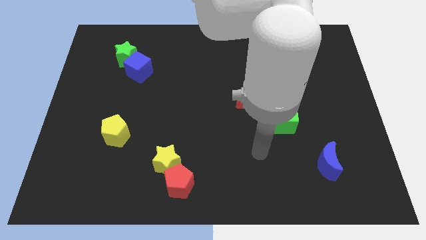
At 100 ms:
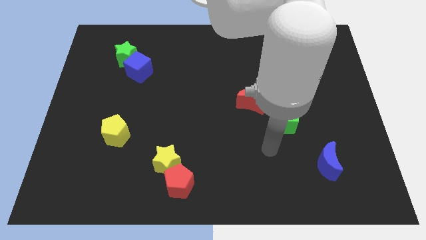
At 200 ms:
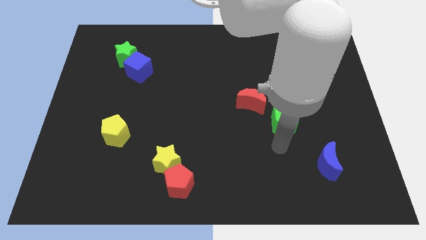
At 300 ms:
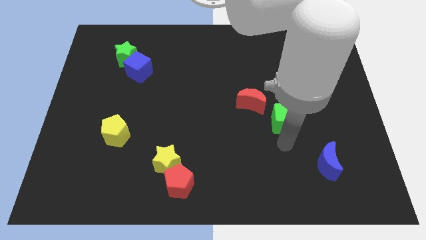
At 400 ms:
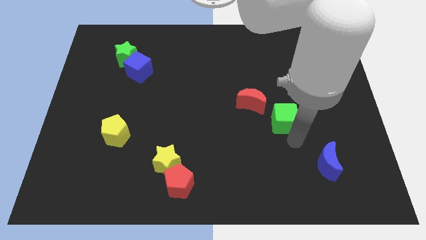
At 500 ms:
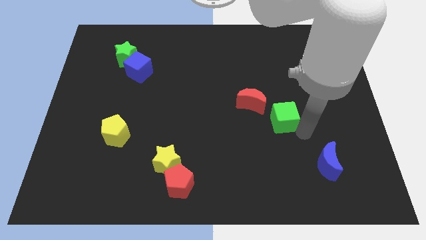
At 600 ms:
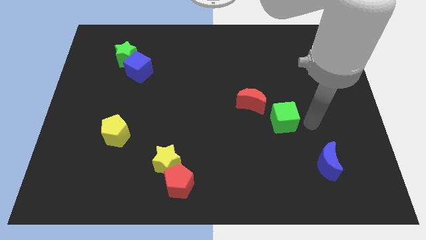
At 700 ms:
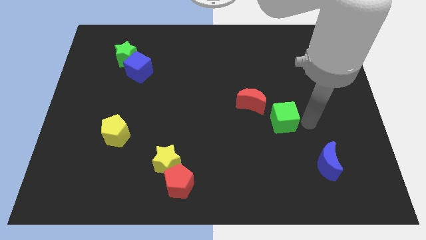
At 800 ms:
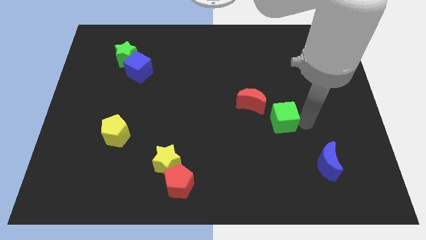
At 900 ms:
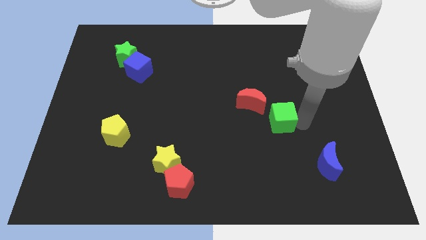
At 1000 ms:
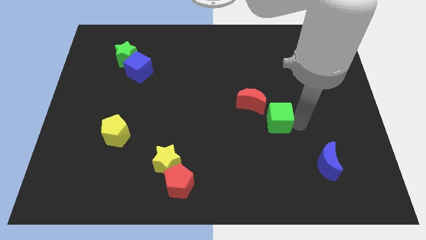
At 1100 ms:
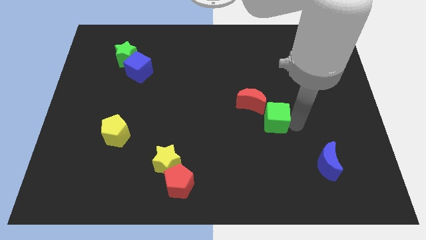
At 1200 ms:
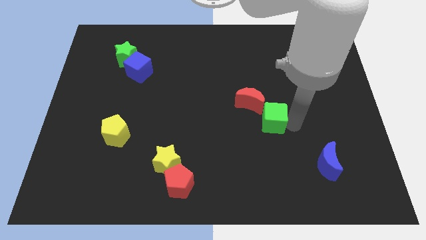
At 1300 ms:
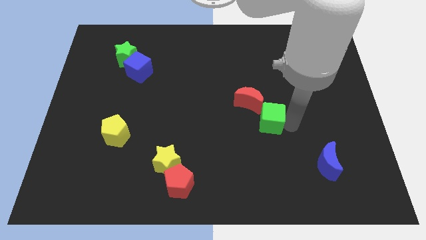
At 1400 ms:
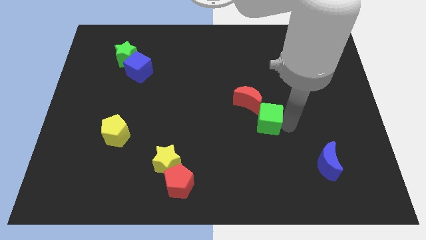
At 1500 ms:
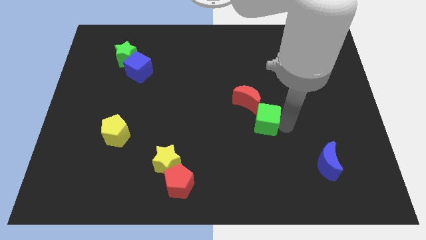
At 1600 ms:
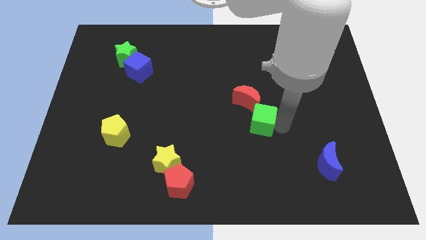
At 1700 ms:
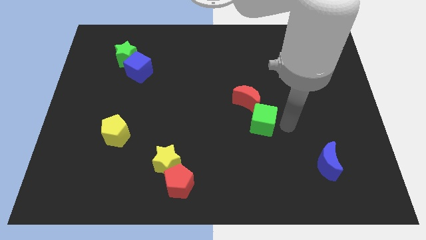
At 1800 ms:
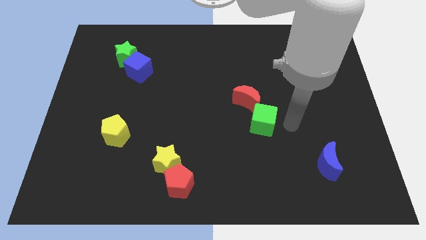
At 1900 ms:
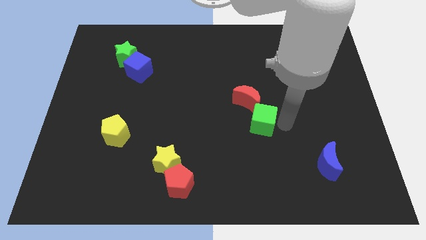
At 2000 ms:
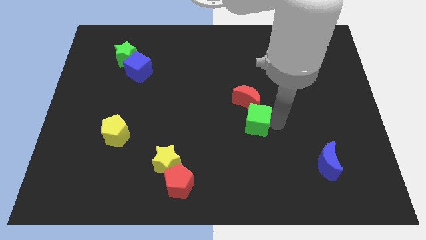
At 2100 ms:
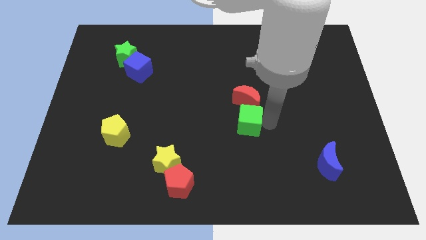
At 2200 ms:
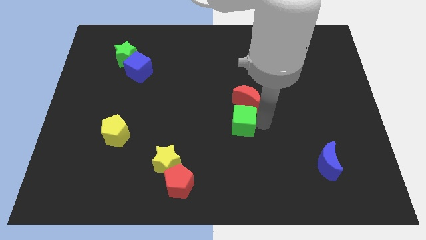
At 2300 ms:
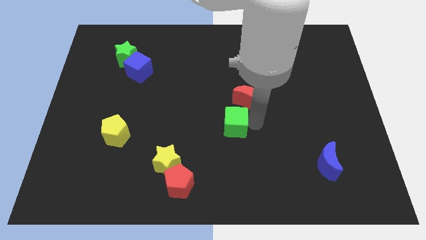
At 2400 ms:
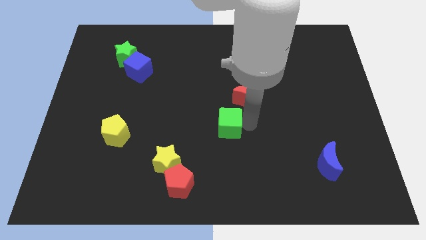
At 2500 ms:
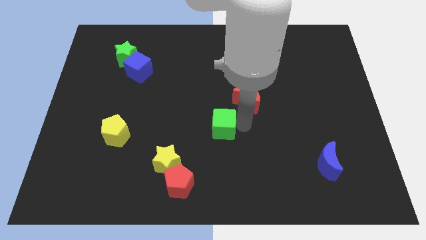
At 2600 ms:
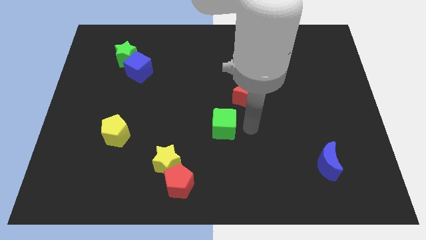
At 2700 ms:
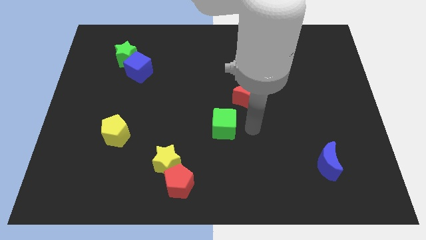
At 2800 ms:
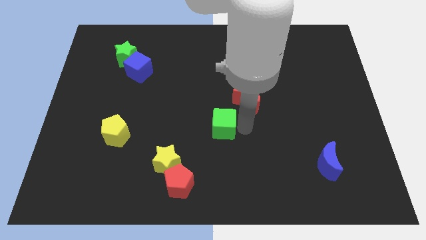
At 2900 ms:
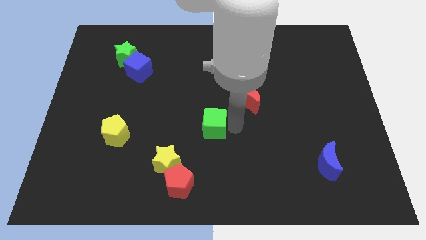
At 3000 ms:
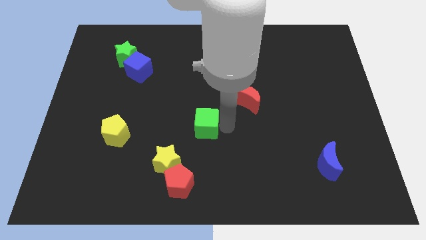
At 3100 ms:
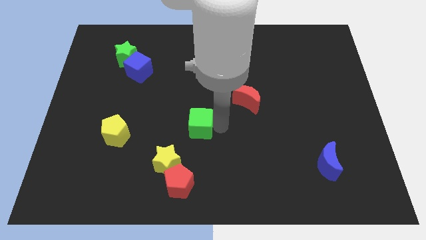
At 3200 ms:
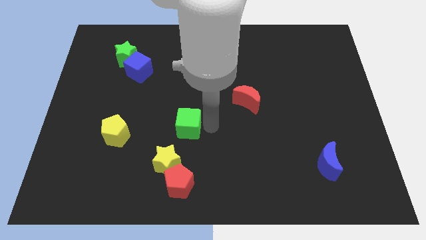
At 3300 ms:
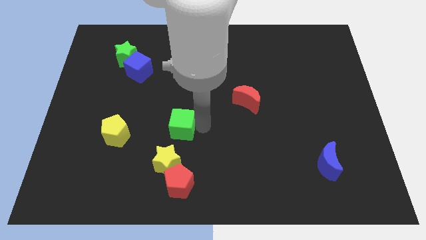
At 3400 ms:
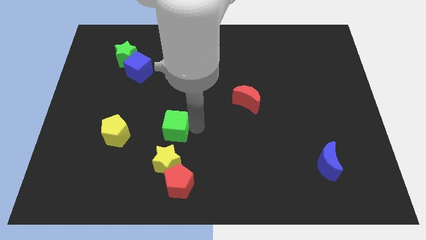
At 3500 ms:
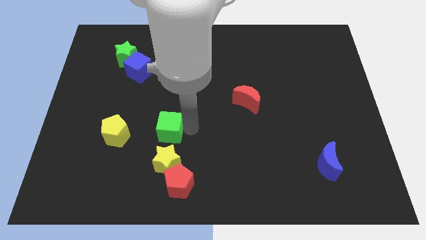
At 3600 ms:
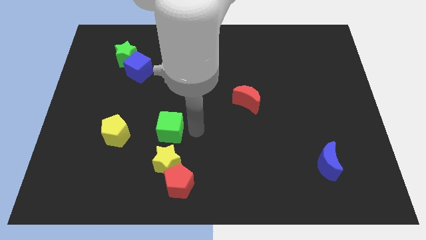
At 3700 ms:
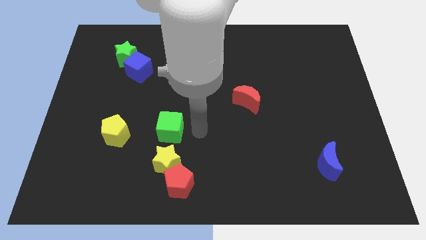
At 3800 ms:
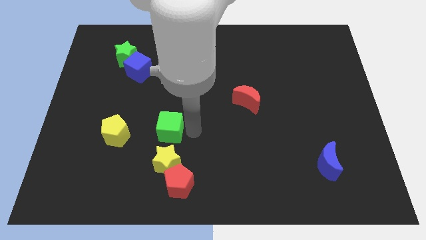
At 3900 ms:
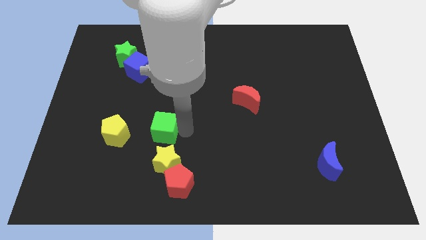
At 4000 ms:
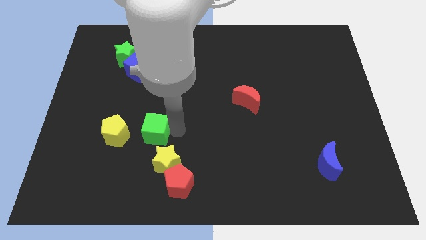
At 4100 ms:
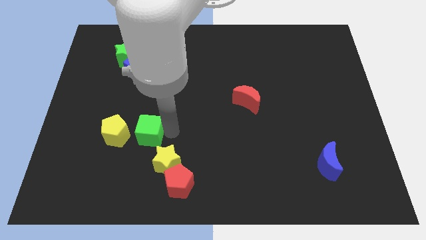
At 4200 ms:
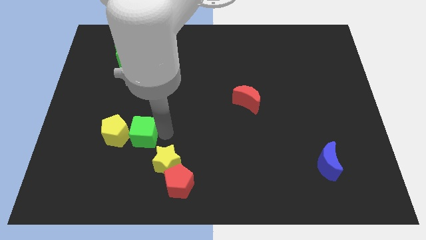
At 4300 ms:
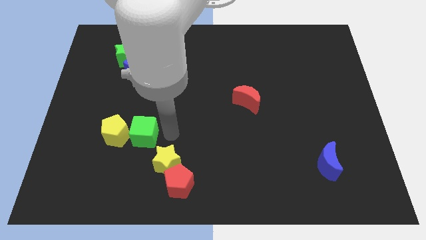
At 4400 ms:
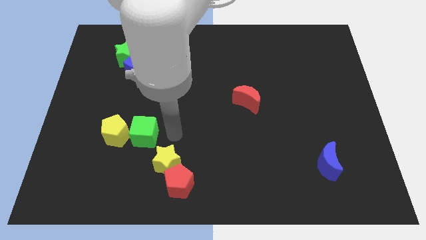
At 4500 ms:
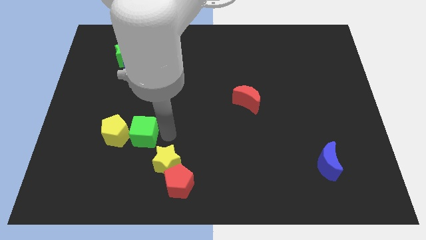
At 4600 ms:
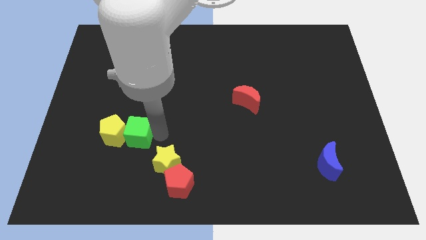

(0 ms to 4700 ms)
push the green cube to the yellow pentagon

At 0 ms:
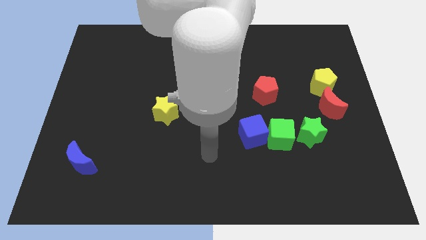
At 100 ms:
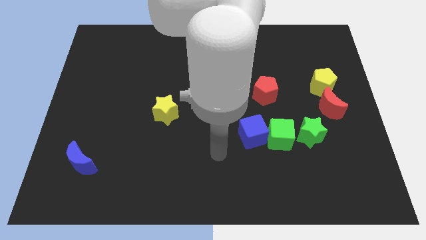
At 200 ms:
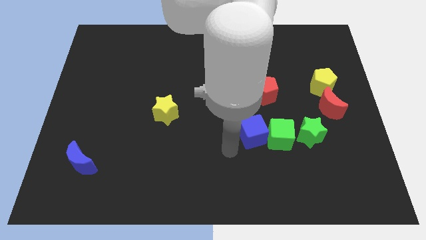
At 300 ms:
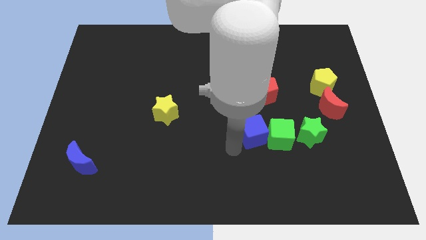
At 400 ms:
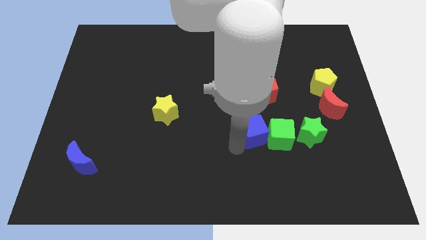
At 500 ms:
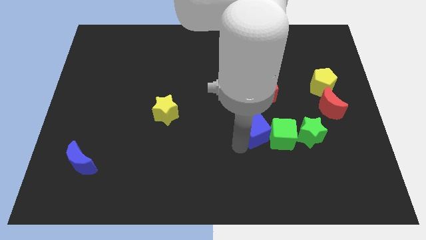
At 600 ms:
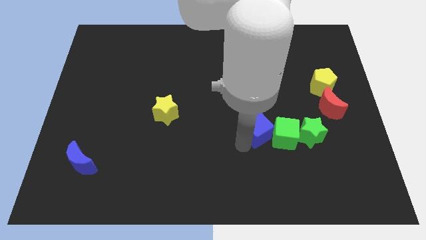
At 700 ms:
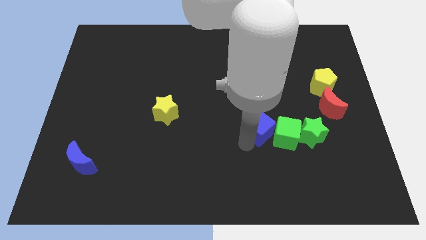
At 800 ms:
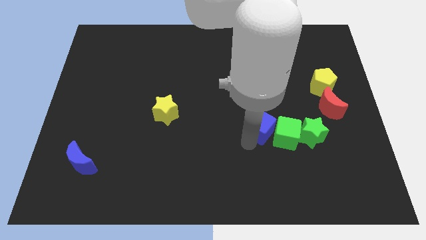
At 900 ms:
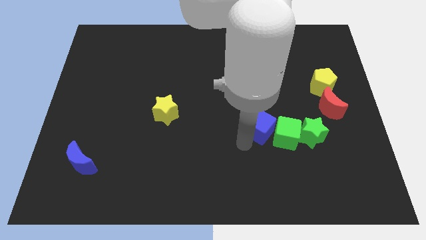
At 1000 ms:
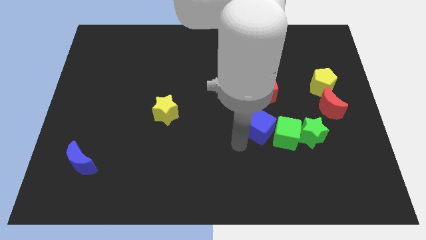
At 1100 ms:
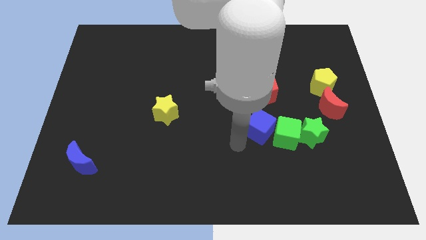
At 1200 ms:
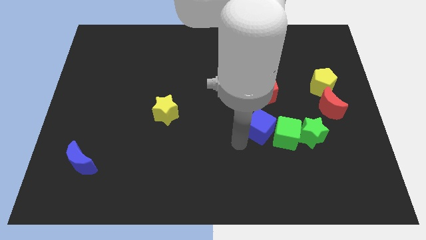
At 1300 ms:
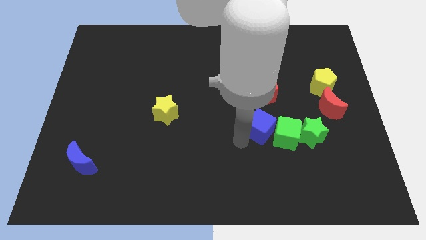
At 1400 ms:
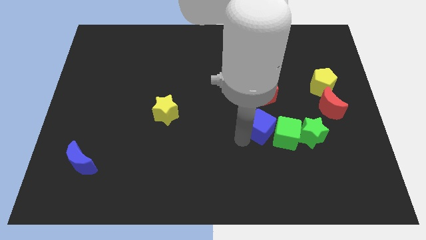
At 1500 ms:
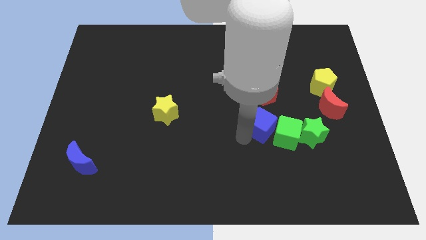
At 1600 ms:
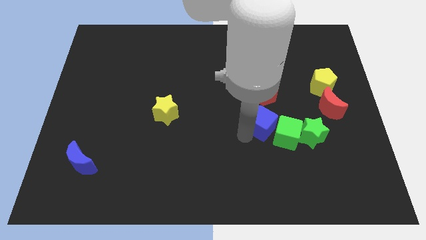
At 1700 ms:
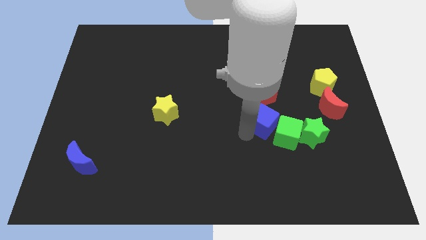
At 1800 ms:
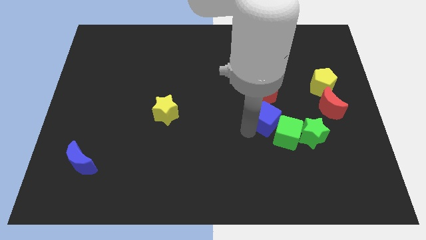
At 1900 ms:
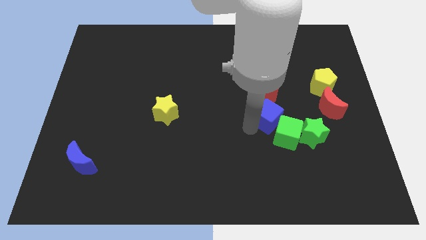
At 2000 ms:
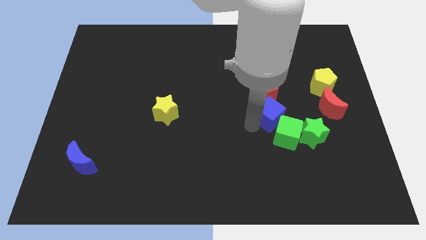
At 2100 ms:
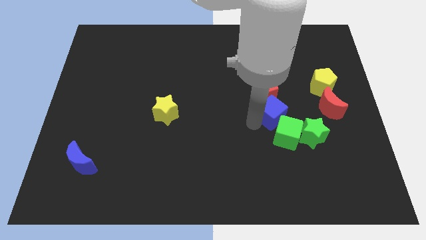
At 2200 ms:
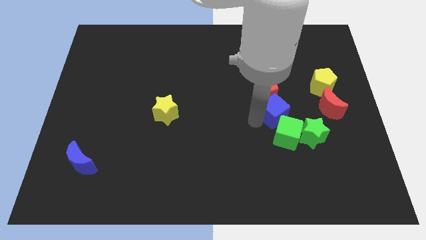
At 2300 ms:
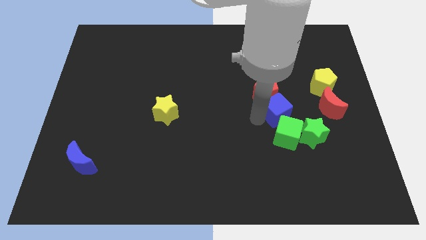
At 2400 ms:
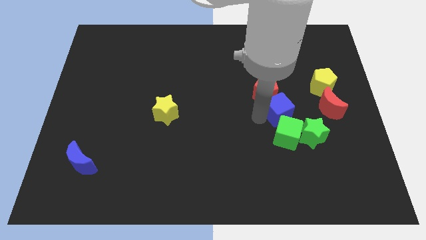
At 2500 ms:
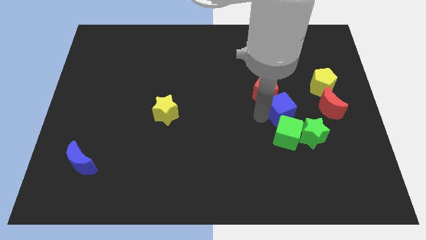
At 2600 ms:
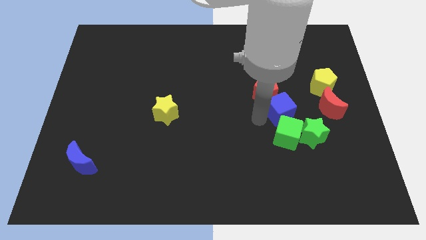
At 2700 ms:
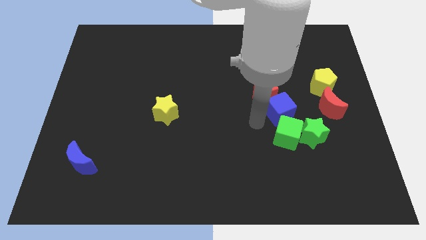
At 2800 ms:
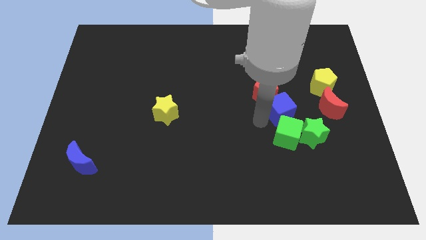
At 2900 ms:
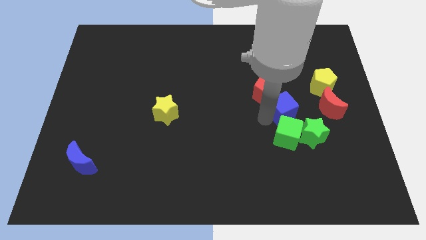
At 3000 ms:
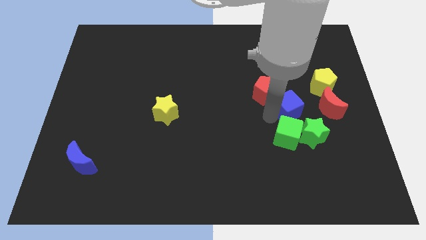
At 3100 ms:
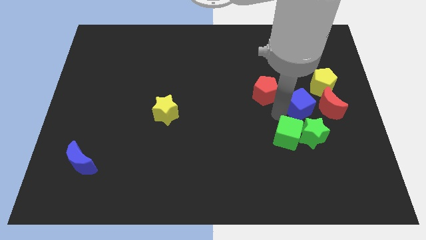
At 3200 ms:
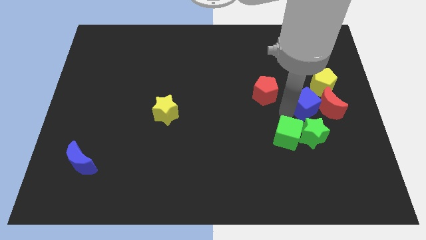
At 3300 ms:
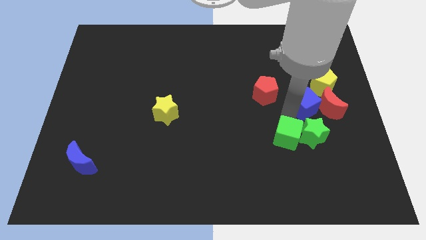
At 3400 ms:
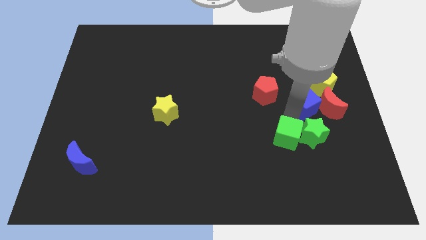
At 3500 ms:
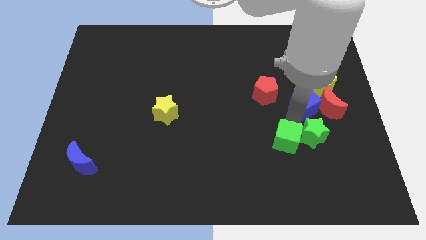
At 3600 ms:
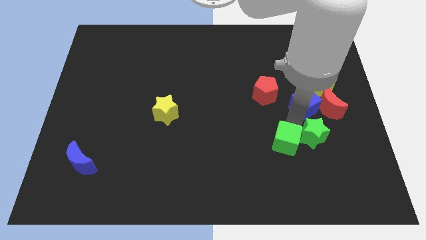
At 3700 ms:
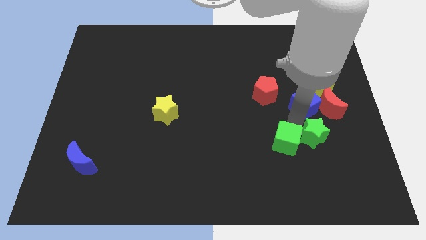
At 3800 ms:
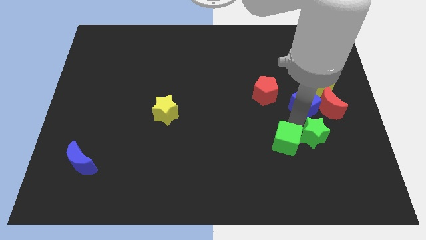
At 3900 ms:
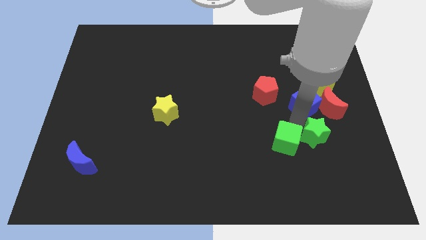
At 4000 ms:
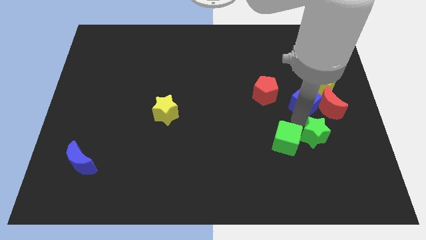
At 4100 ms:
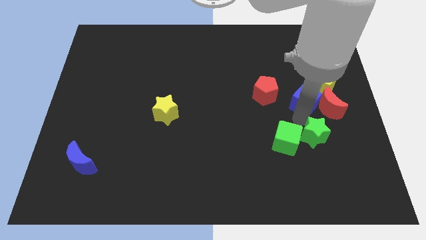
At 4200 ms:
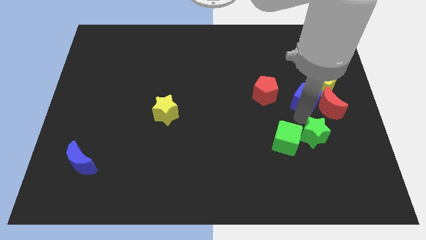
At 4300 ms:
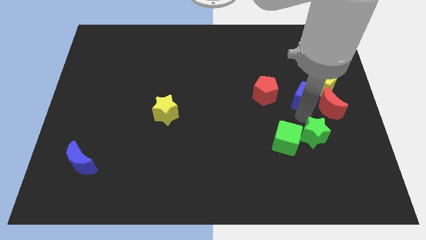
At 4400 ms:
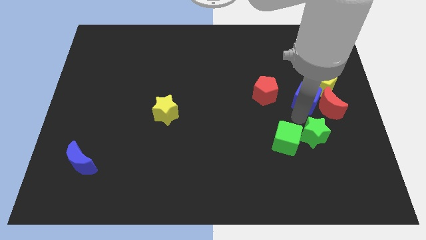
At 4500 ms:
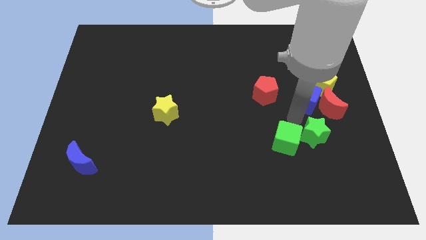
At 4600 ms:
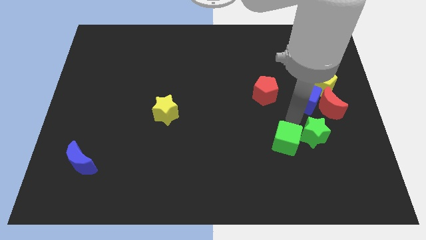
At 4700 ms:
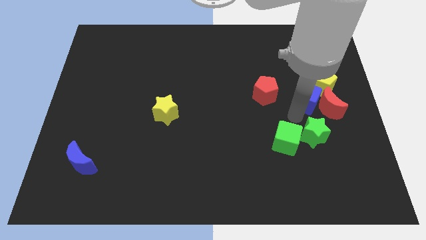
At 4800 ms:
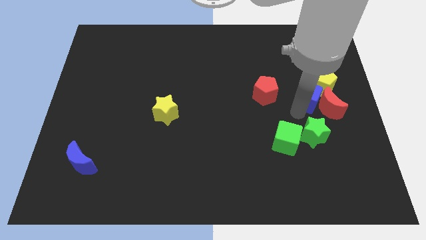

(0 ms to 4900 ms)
slide the blue cube next to the yellow pentagon
